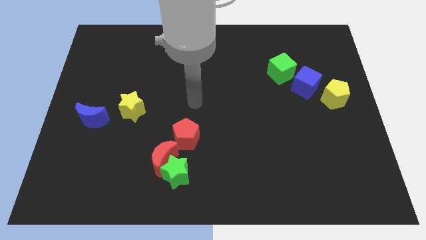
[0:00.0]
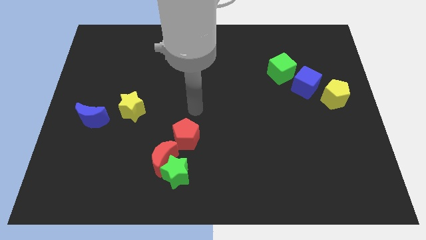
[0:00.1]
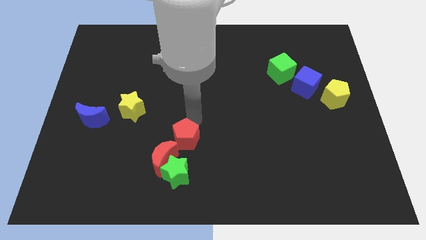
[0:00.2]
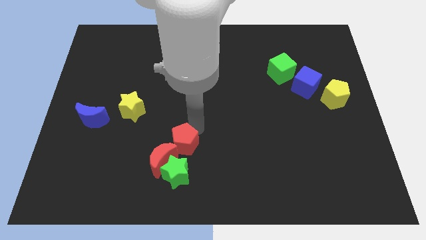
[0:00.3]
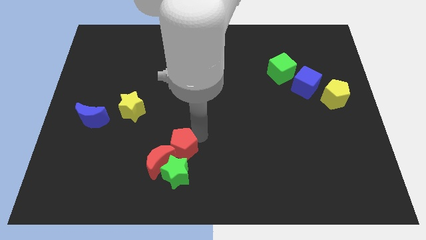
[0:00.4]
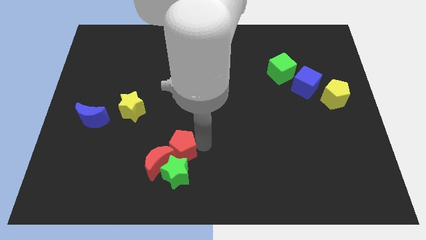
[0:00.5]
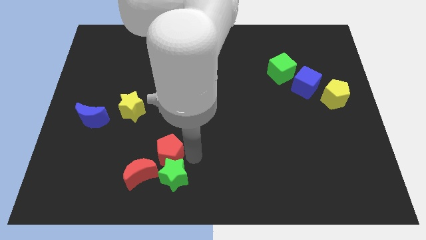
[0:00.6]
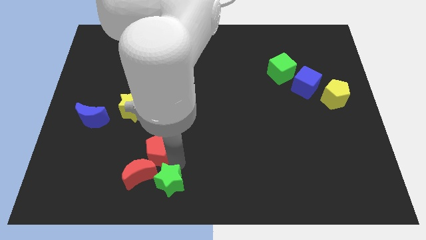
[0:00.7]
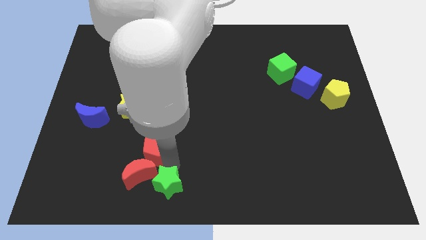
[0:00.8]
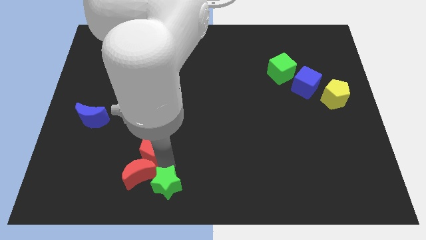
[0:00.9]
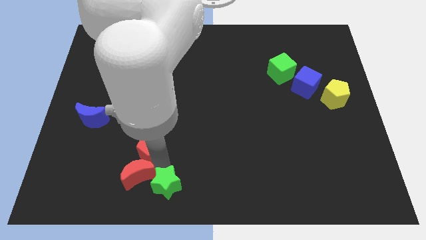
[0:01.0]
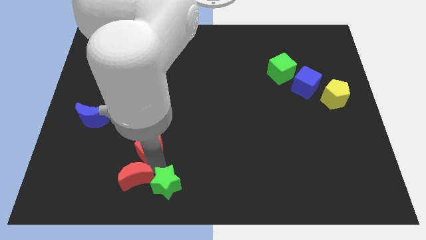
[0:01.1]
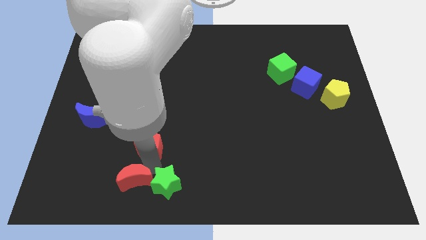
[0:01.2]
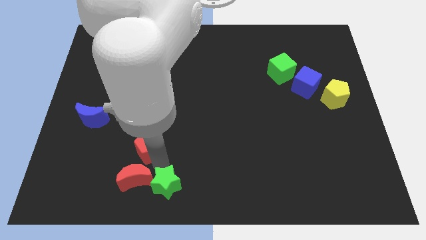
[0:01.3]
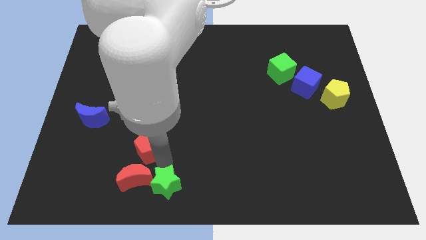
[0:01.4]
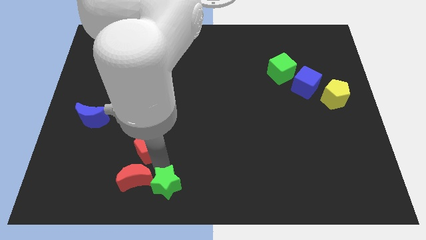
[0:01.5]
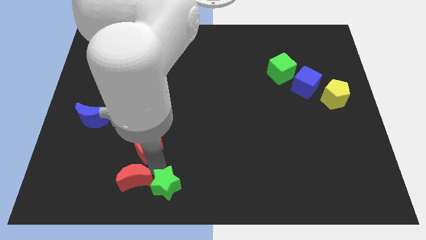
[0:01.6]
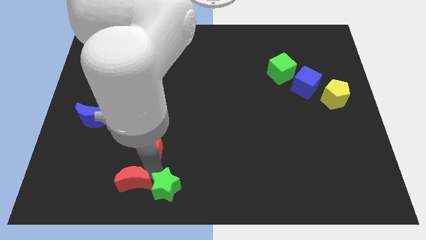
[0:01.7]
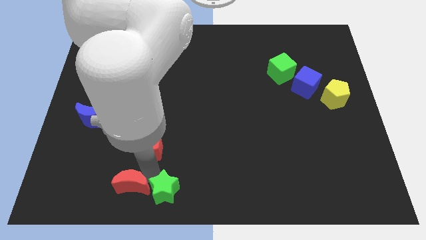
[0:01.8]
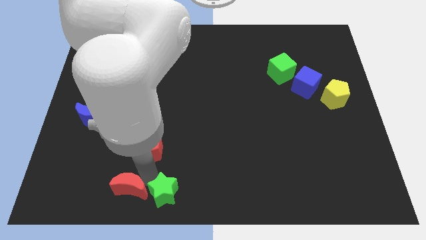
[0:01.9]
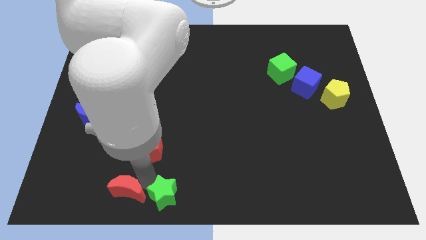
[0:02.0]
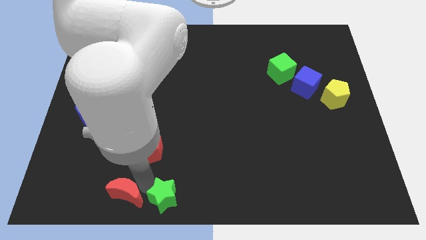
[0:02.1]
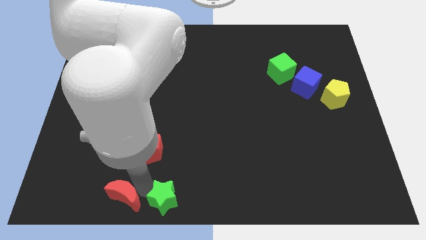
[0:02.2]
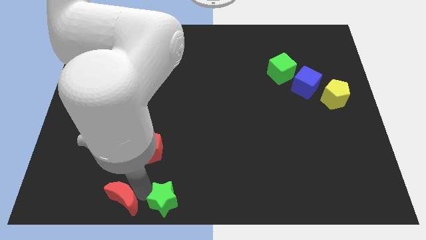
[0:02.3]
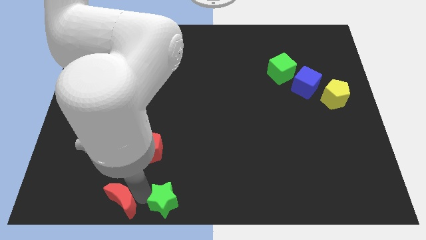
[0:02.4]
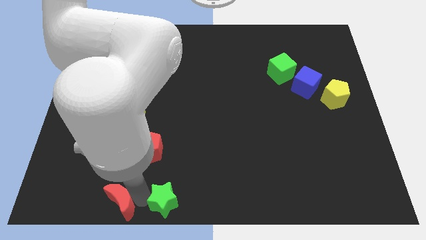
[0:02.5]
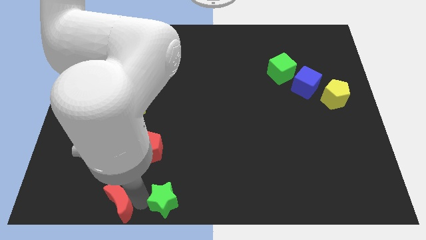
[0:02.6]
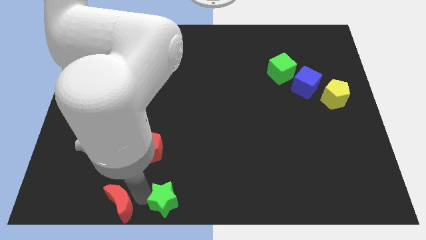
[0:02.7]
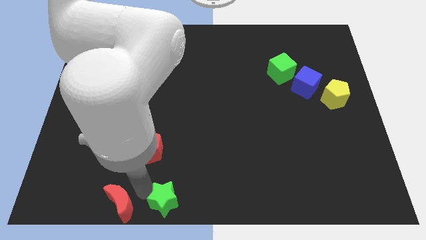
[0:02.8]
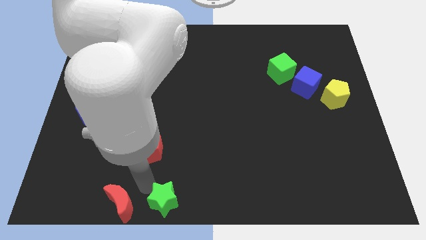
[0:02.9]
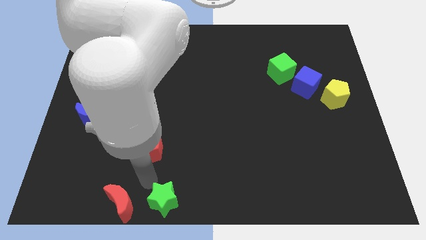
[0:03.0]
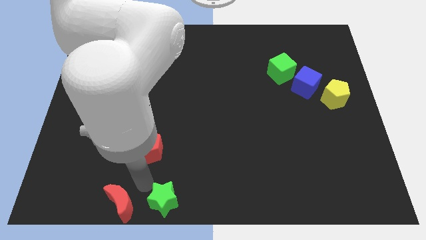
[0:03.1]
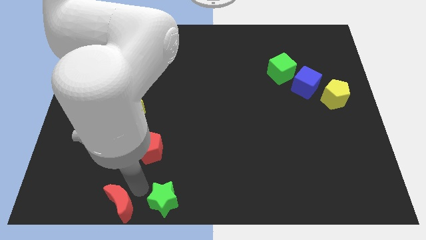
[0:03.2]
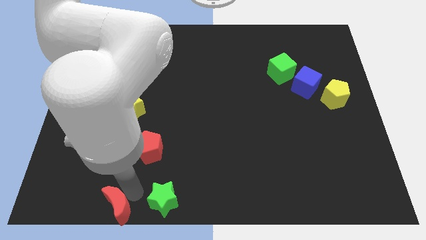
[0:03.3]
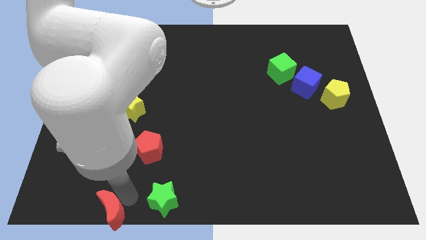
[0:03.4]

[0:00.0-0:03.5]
separate the red moon from the green star and red pentagon

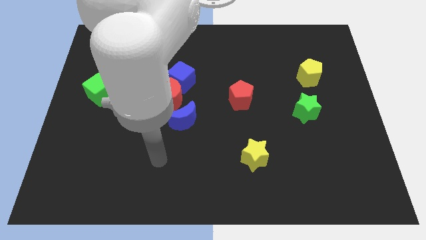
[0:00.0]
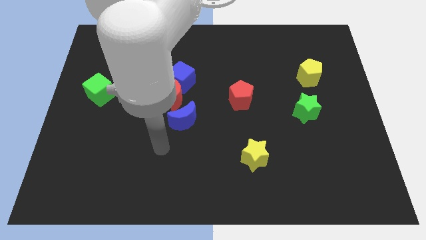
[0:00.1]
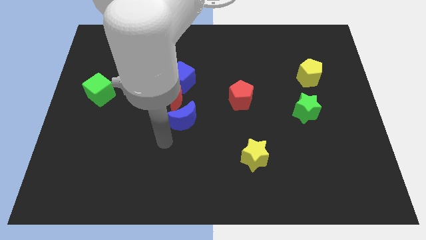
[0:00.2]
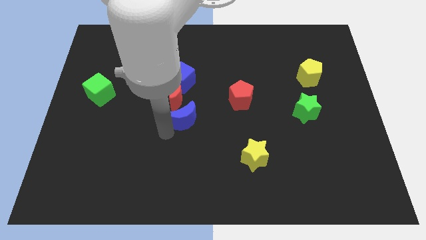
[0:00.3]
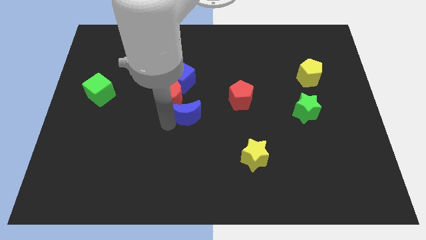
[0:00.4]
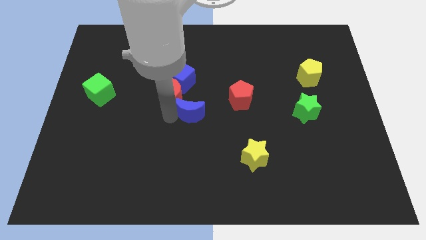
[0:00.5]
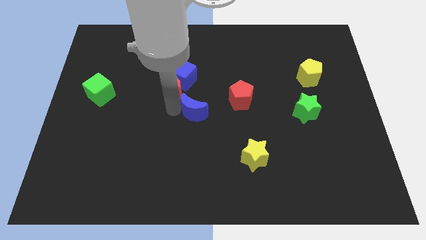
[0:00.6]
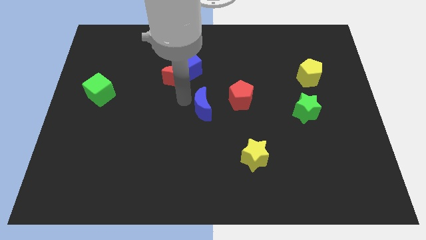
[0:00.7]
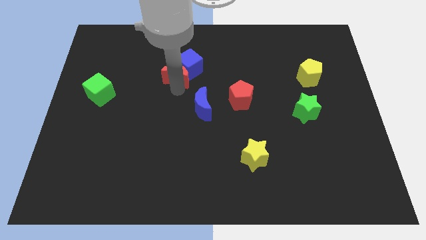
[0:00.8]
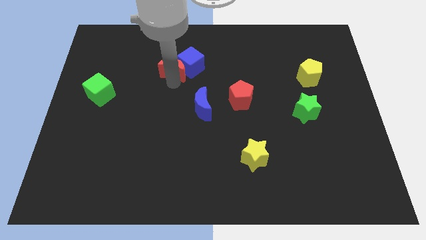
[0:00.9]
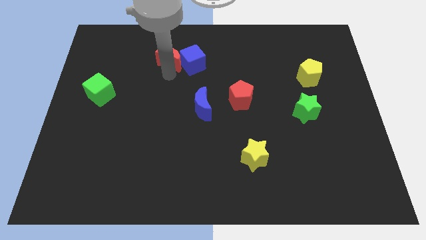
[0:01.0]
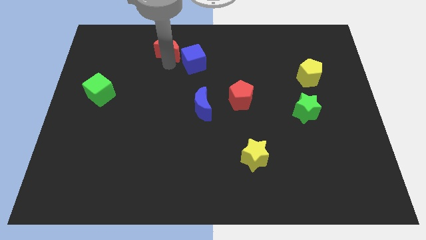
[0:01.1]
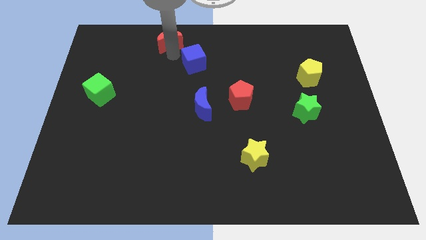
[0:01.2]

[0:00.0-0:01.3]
pull the blue cube apart from the red moon

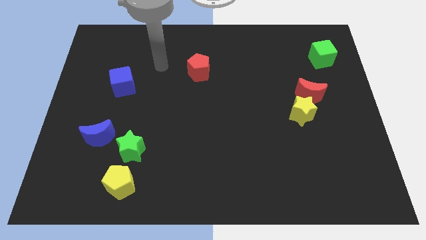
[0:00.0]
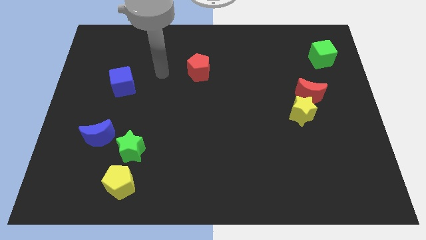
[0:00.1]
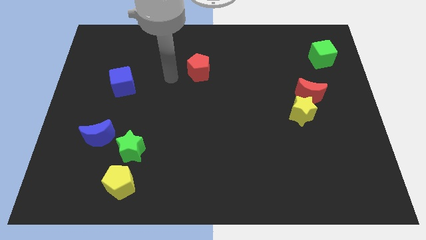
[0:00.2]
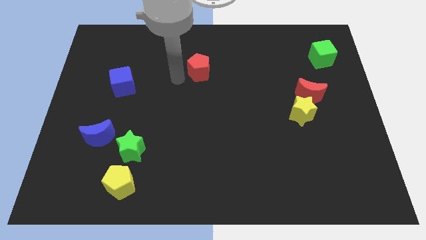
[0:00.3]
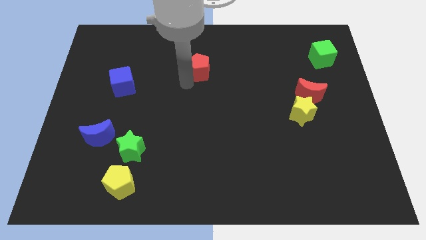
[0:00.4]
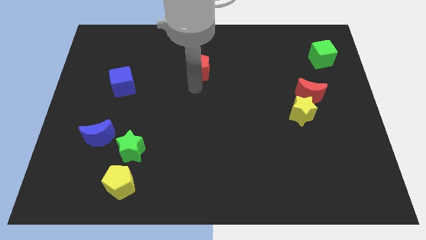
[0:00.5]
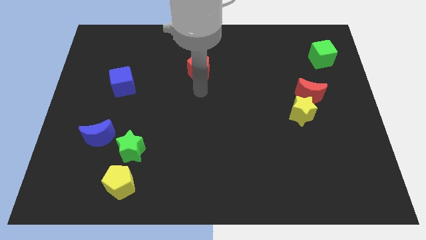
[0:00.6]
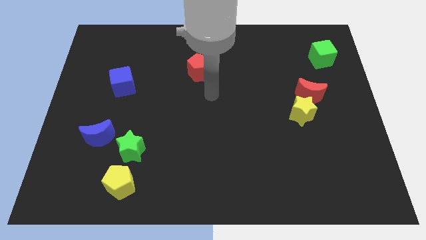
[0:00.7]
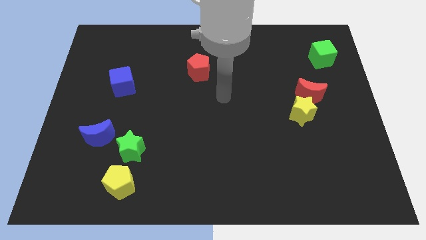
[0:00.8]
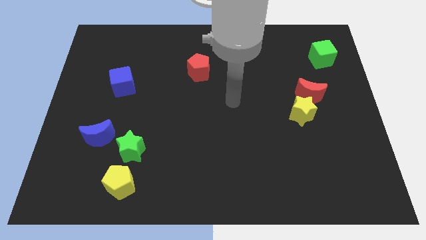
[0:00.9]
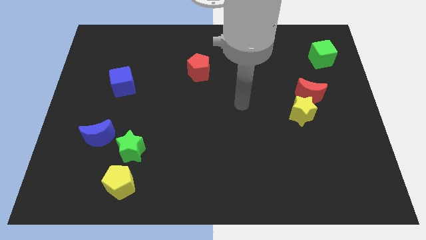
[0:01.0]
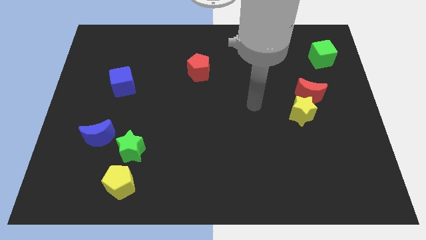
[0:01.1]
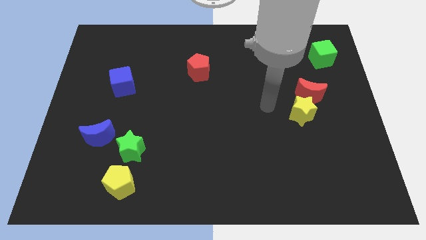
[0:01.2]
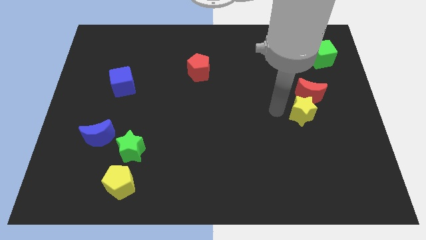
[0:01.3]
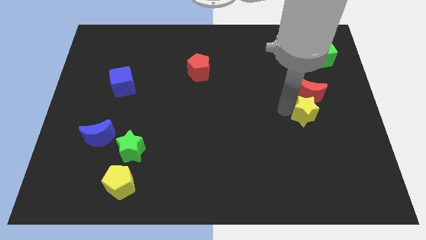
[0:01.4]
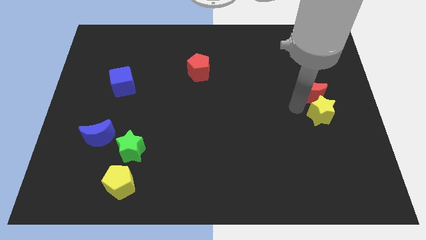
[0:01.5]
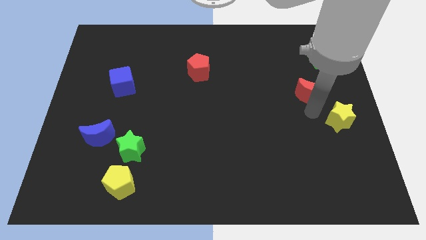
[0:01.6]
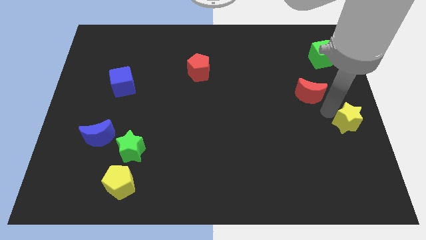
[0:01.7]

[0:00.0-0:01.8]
move the red moon away from the yellow star

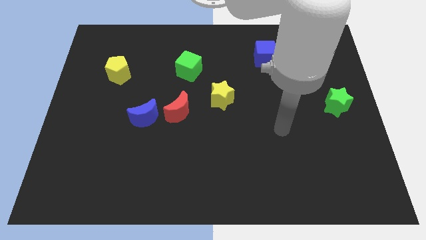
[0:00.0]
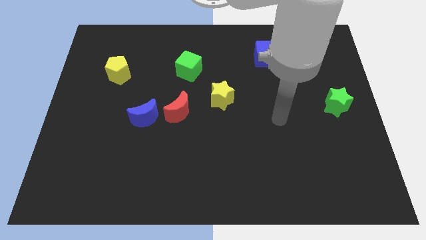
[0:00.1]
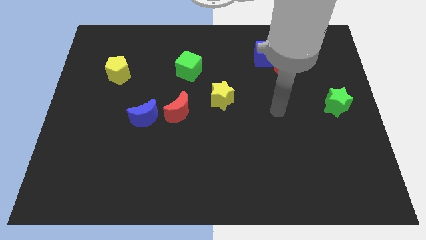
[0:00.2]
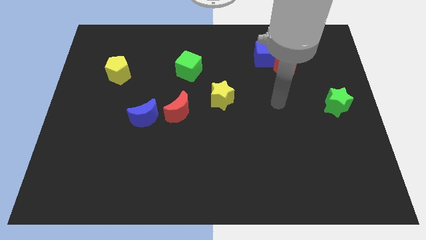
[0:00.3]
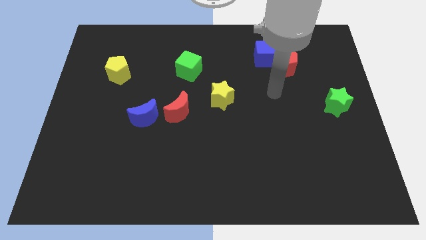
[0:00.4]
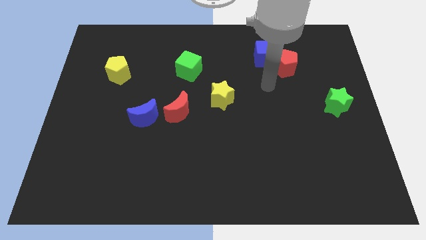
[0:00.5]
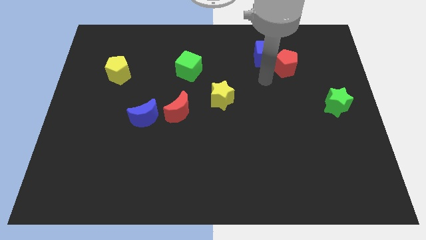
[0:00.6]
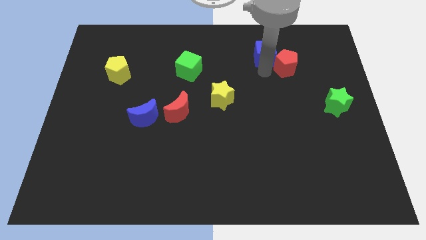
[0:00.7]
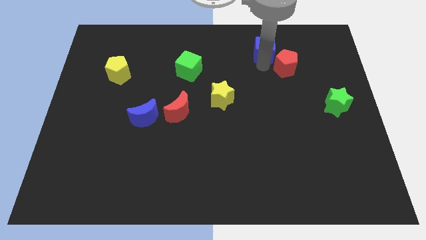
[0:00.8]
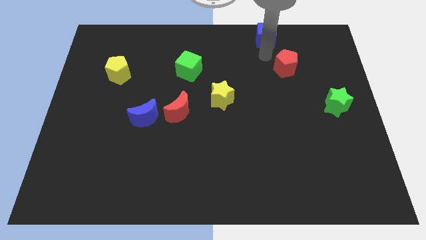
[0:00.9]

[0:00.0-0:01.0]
move the red pentagon away from the blue cube

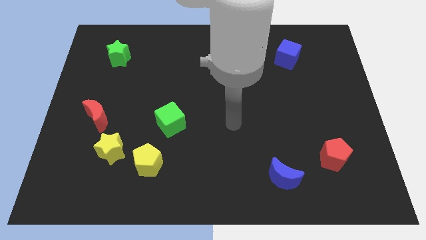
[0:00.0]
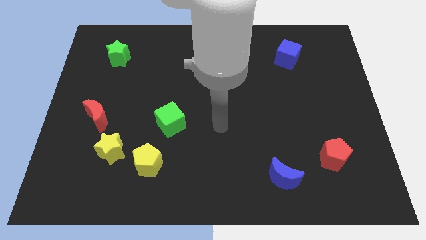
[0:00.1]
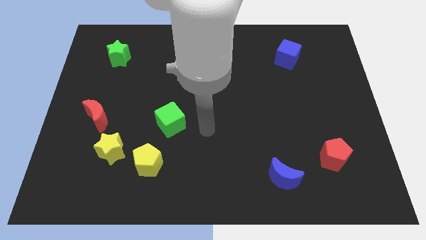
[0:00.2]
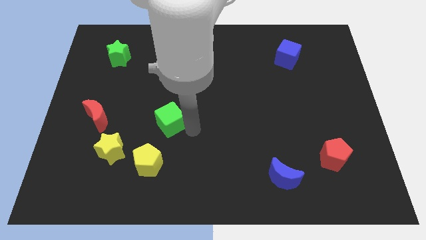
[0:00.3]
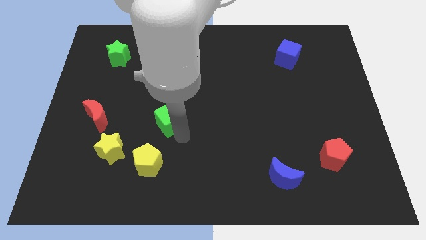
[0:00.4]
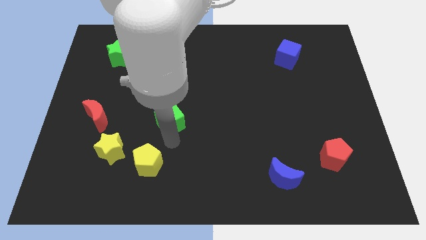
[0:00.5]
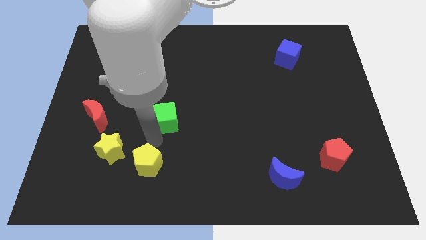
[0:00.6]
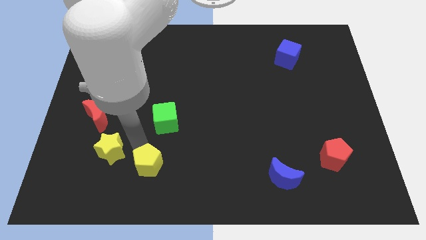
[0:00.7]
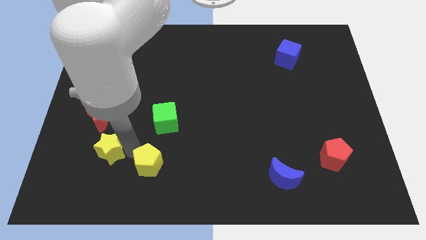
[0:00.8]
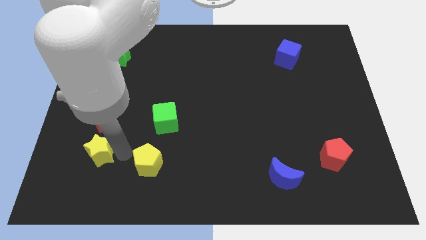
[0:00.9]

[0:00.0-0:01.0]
separate the yellow pentagon from the yellow star

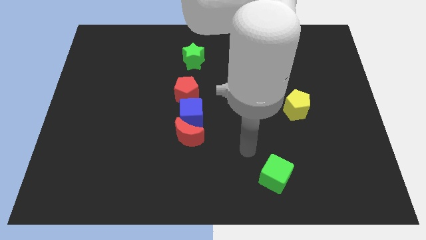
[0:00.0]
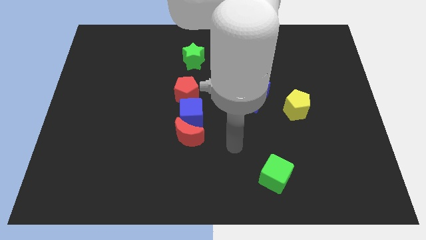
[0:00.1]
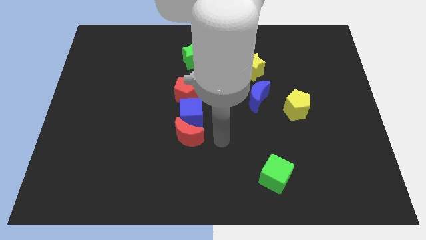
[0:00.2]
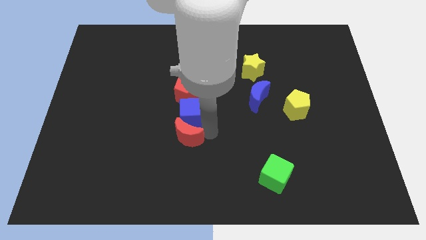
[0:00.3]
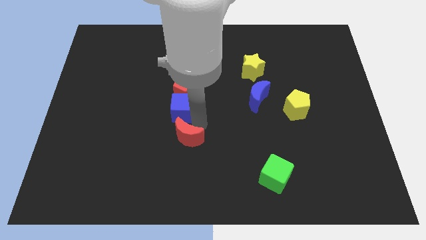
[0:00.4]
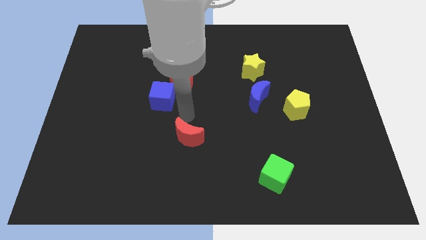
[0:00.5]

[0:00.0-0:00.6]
pull the red moon apart from the blue cube
